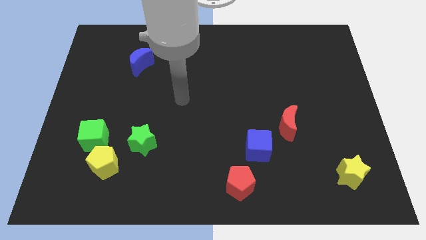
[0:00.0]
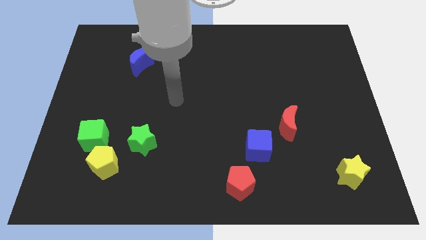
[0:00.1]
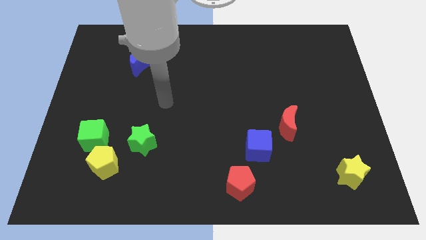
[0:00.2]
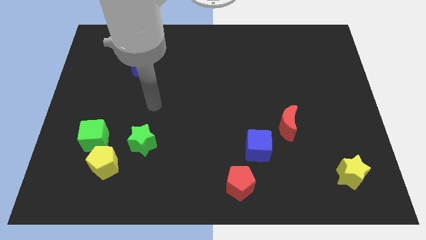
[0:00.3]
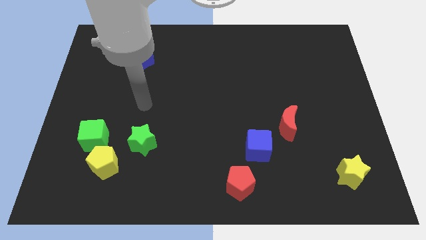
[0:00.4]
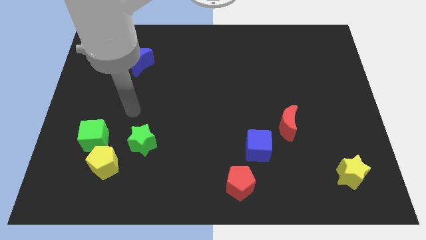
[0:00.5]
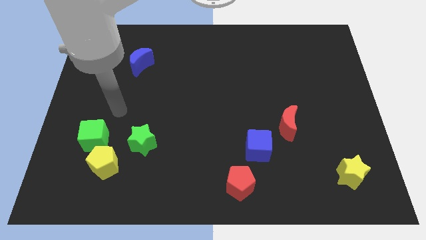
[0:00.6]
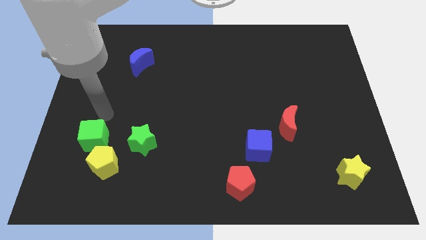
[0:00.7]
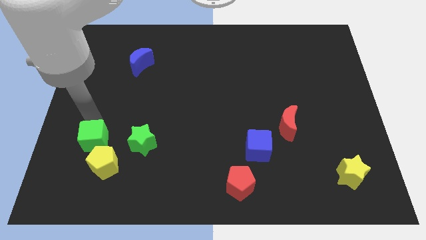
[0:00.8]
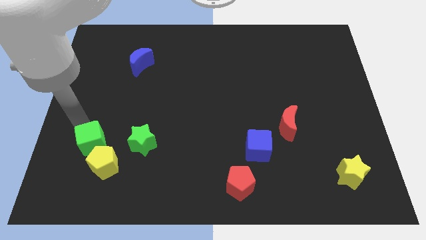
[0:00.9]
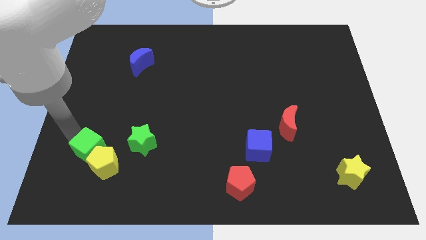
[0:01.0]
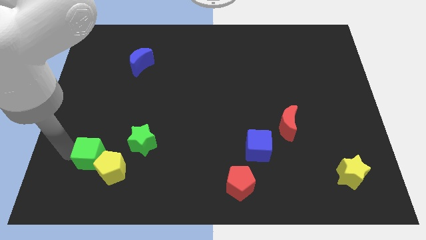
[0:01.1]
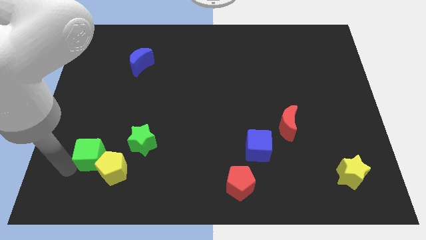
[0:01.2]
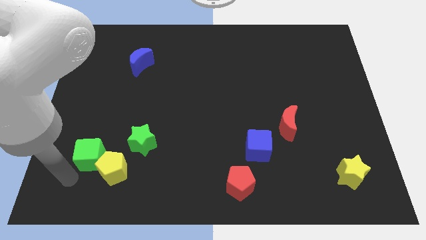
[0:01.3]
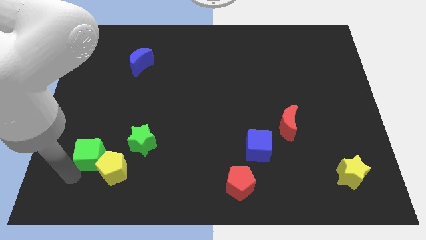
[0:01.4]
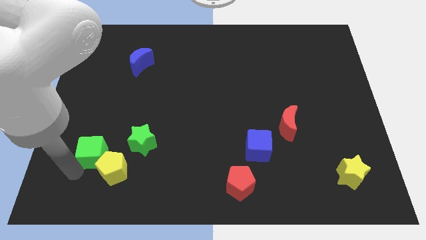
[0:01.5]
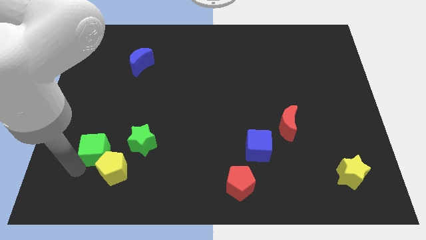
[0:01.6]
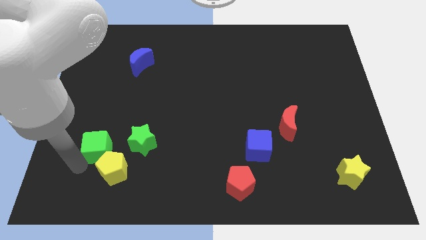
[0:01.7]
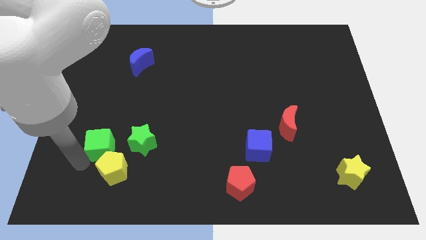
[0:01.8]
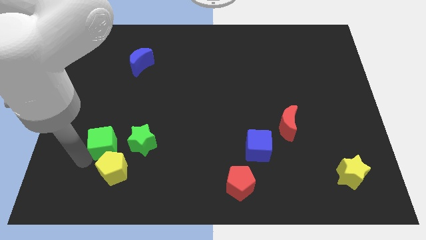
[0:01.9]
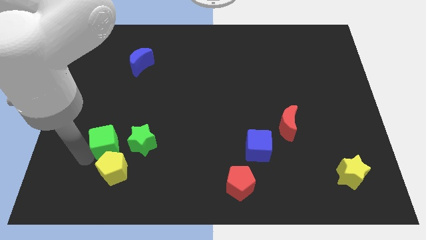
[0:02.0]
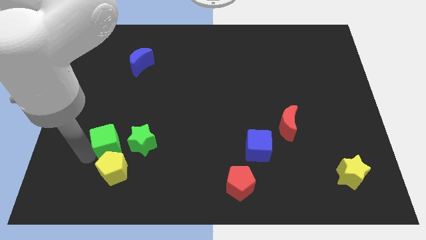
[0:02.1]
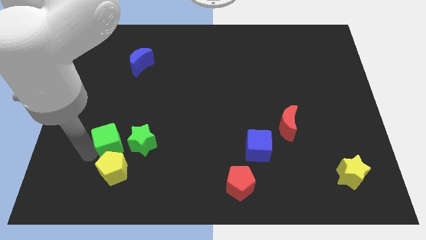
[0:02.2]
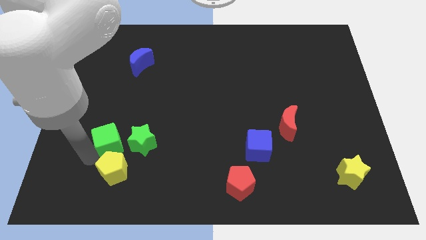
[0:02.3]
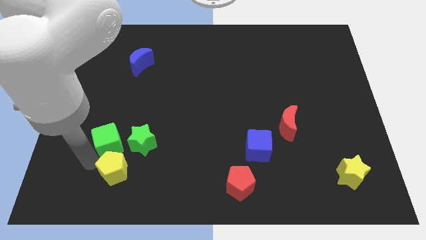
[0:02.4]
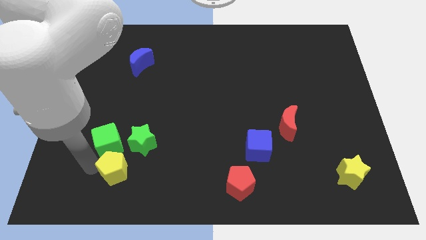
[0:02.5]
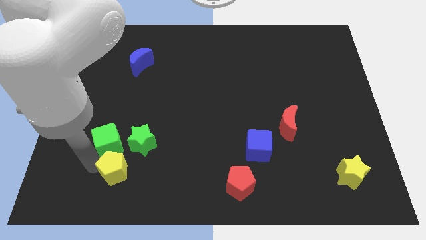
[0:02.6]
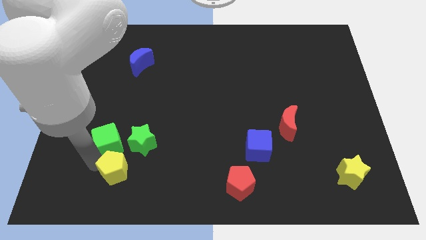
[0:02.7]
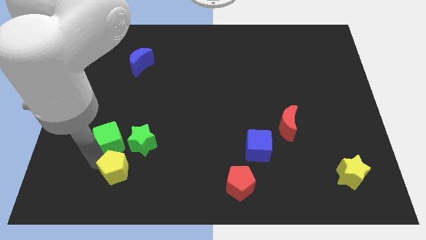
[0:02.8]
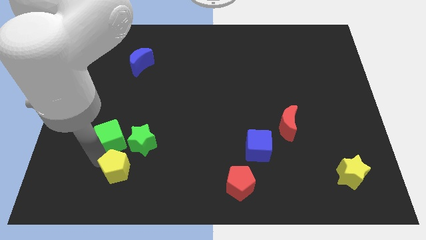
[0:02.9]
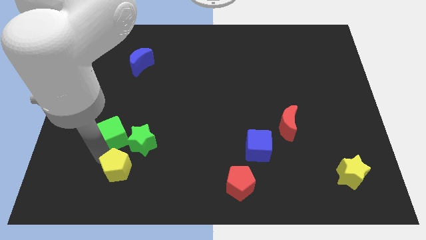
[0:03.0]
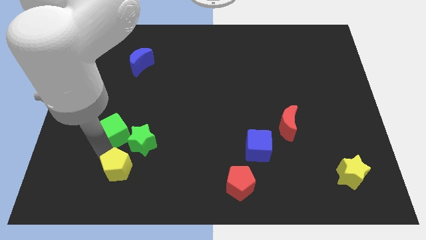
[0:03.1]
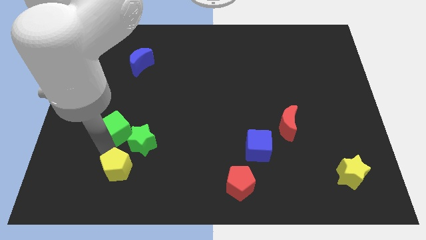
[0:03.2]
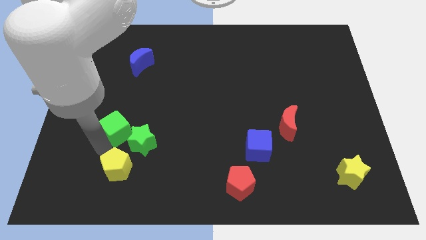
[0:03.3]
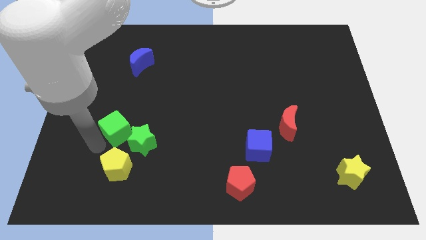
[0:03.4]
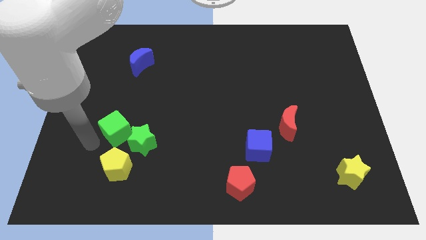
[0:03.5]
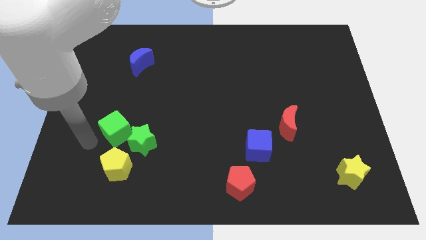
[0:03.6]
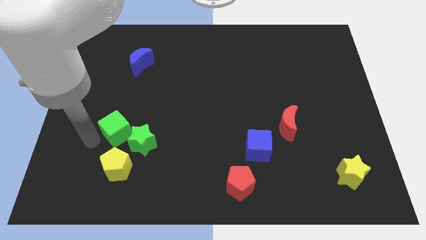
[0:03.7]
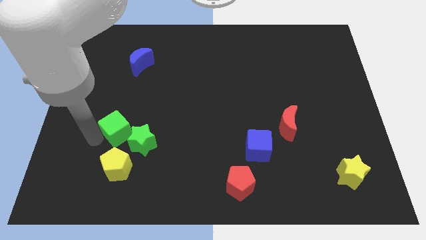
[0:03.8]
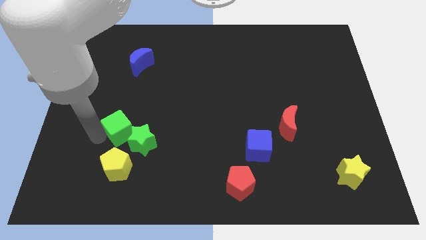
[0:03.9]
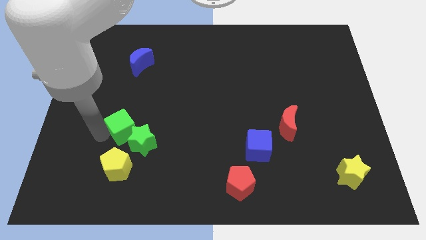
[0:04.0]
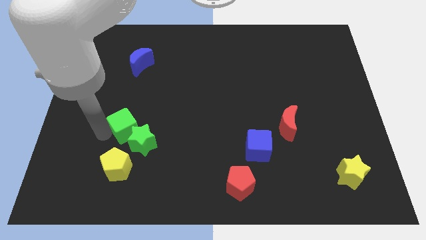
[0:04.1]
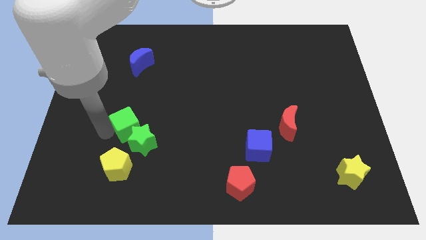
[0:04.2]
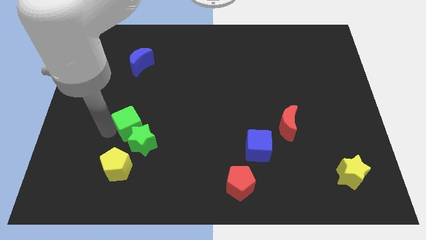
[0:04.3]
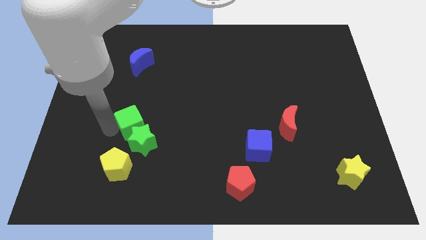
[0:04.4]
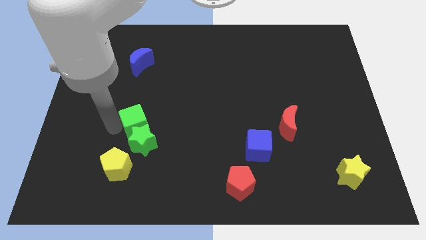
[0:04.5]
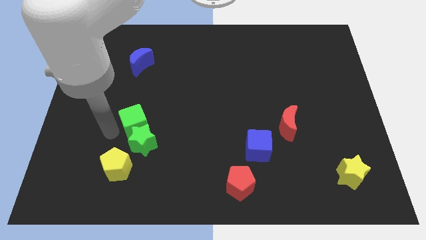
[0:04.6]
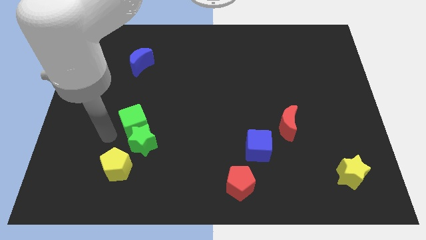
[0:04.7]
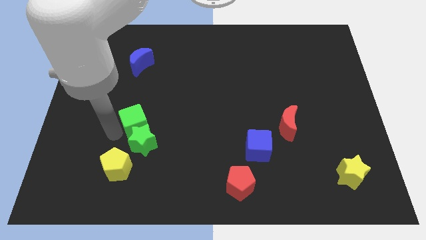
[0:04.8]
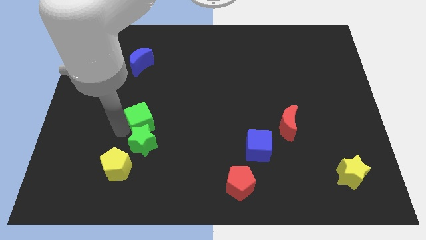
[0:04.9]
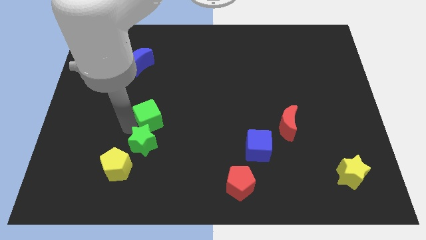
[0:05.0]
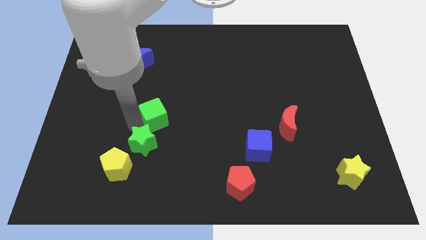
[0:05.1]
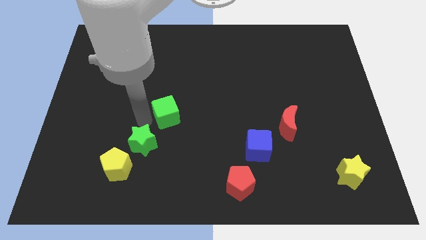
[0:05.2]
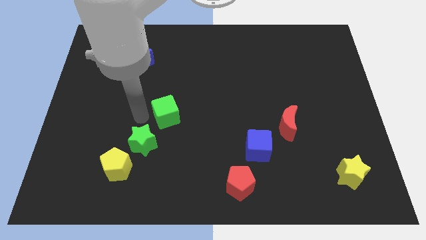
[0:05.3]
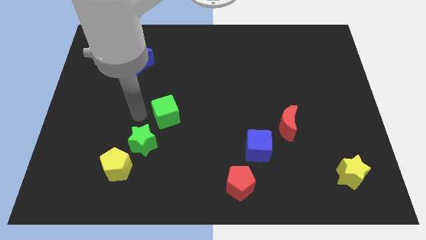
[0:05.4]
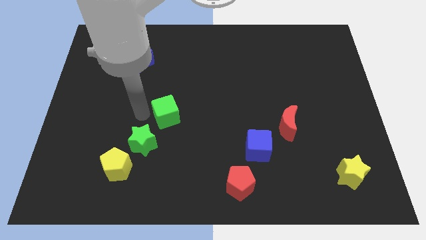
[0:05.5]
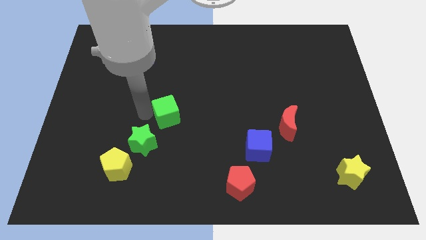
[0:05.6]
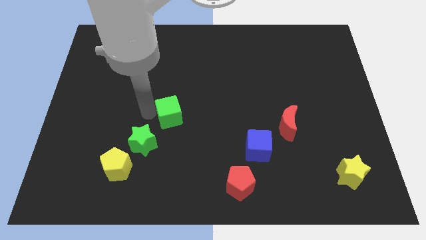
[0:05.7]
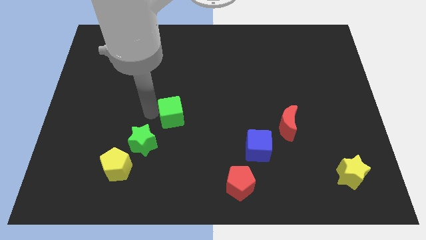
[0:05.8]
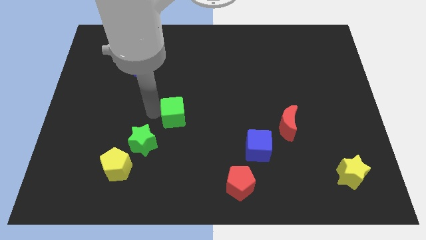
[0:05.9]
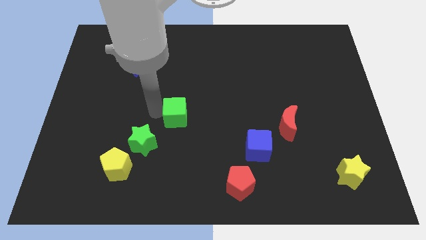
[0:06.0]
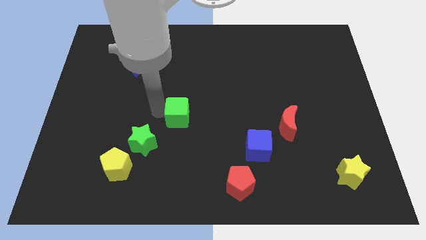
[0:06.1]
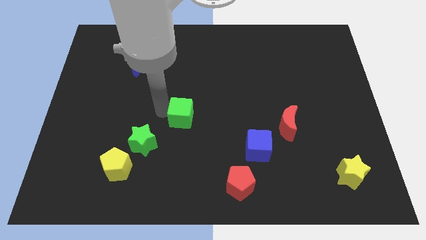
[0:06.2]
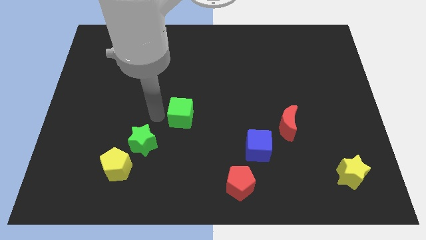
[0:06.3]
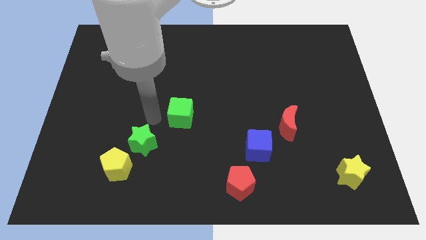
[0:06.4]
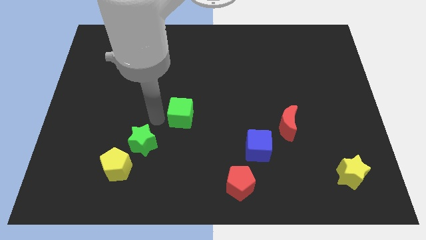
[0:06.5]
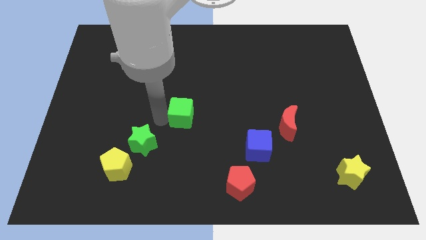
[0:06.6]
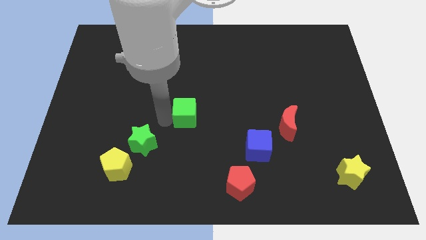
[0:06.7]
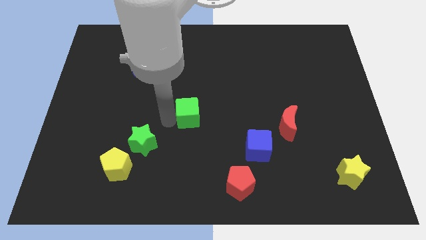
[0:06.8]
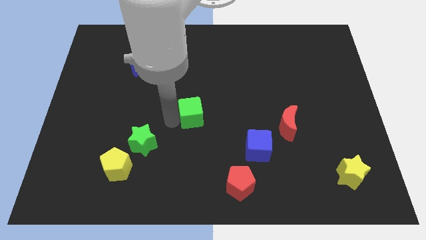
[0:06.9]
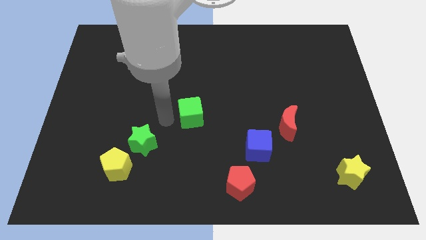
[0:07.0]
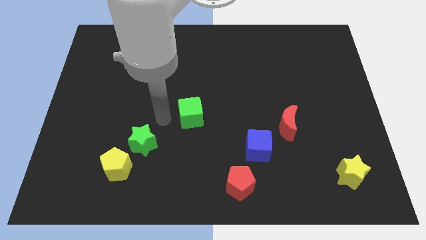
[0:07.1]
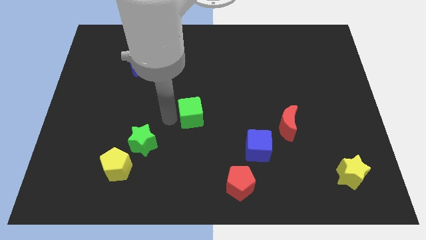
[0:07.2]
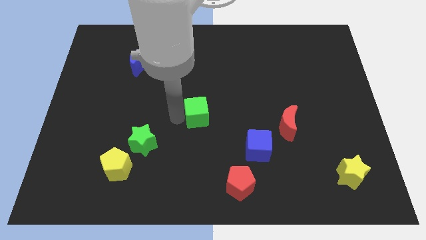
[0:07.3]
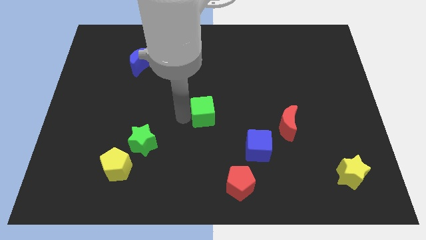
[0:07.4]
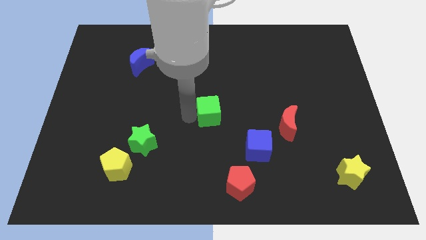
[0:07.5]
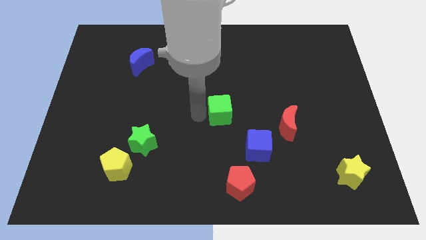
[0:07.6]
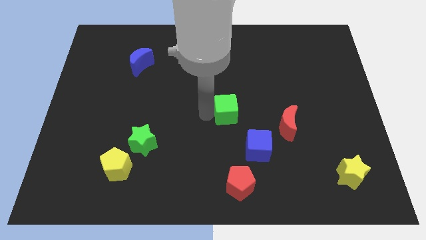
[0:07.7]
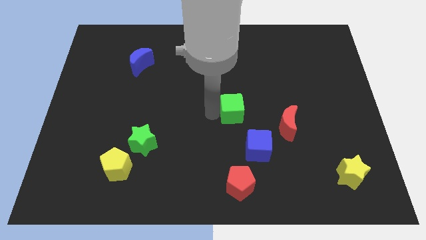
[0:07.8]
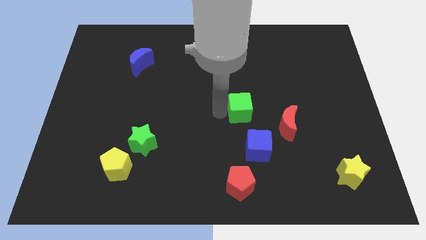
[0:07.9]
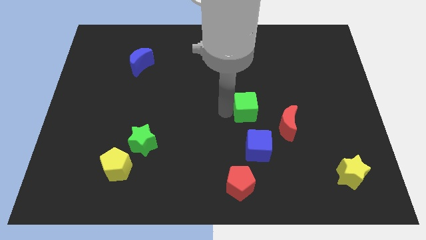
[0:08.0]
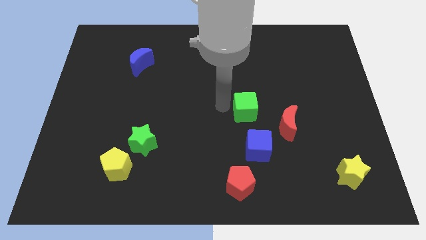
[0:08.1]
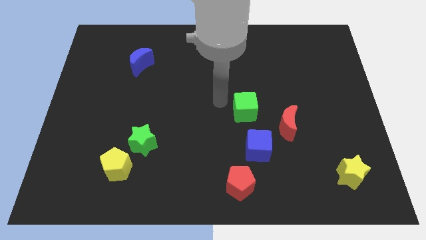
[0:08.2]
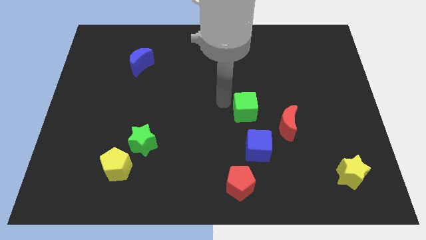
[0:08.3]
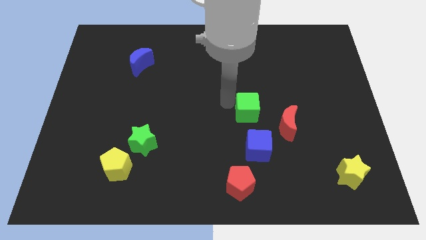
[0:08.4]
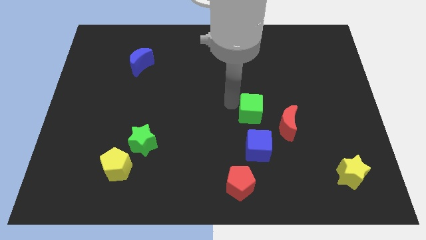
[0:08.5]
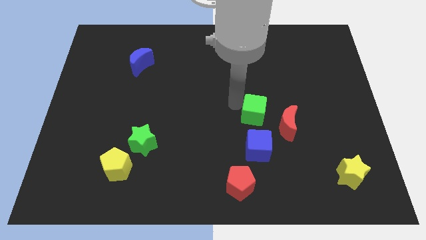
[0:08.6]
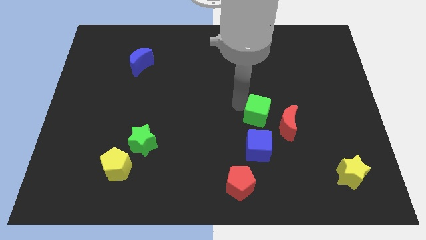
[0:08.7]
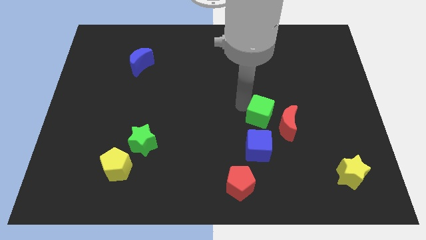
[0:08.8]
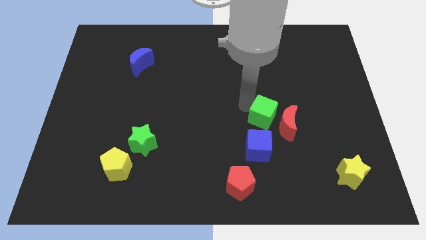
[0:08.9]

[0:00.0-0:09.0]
push the green cube next to the red moon
